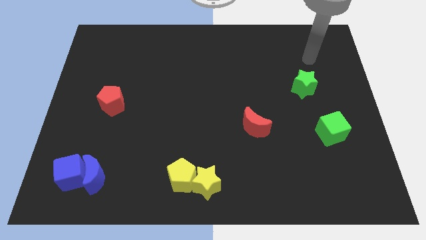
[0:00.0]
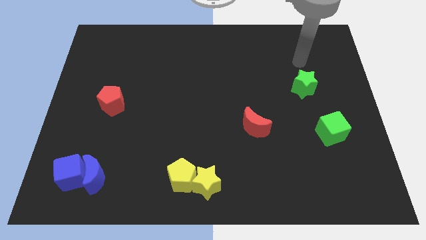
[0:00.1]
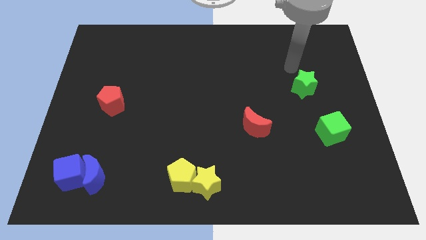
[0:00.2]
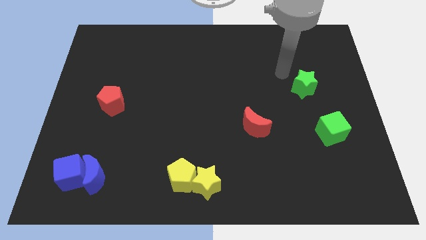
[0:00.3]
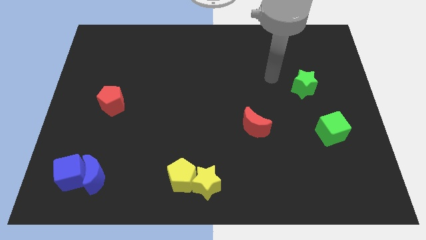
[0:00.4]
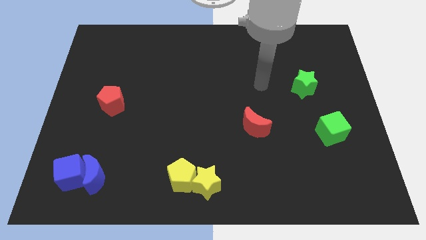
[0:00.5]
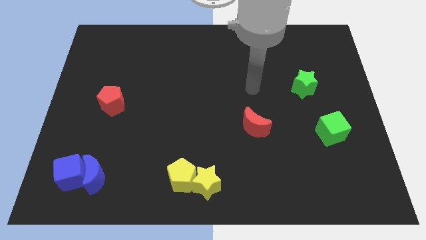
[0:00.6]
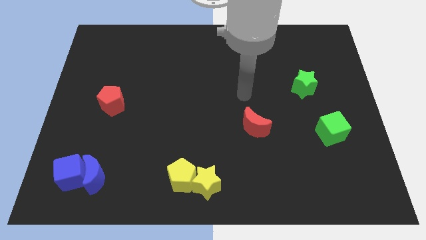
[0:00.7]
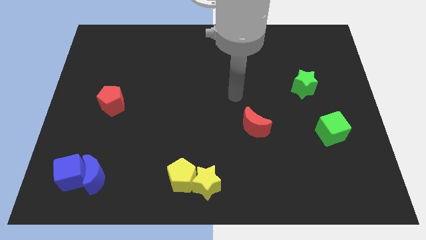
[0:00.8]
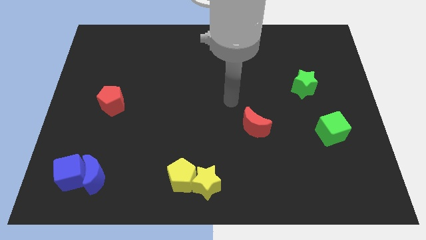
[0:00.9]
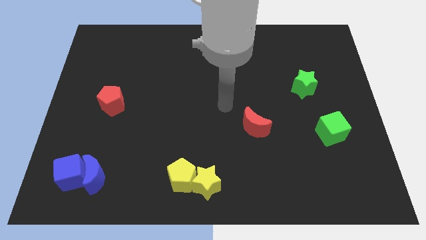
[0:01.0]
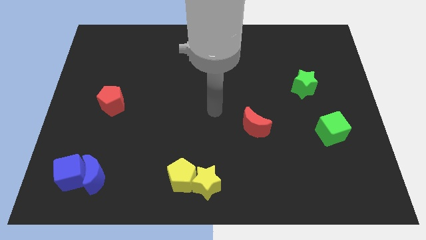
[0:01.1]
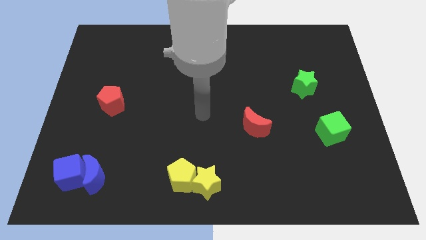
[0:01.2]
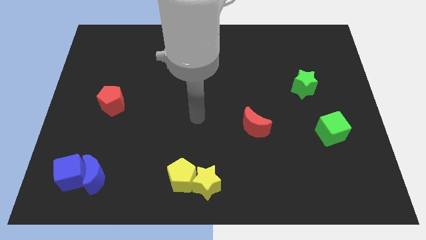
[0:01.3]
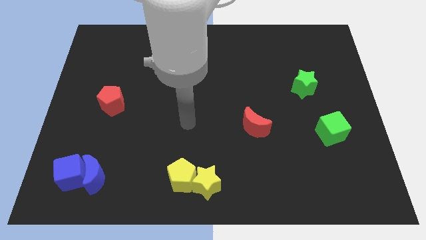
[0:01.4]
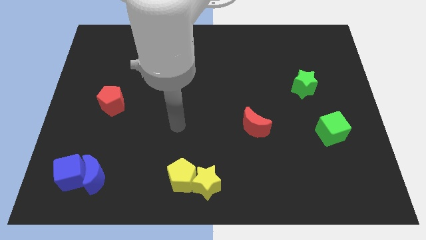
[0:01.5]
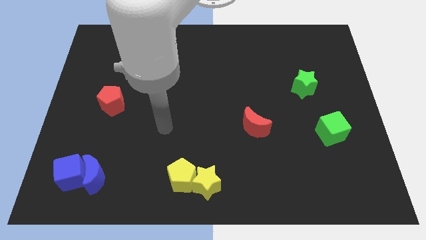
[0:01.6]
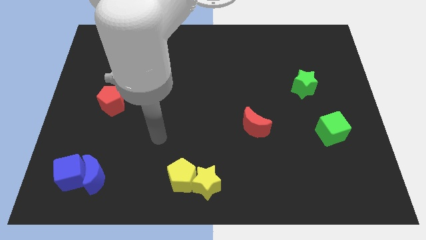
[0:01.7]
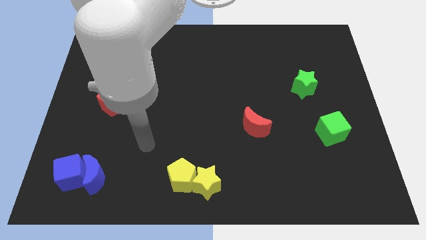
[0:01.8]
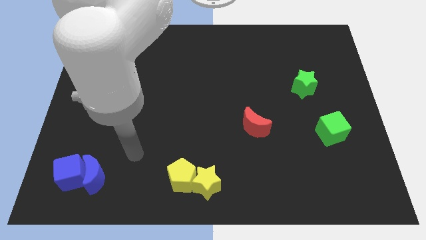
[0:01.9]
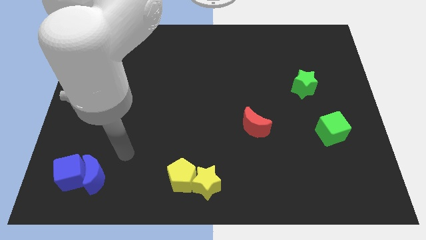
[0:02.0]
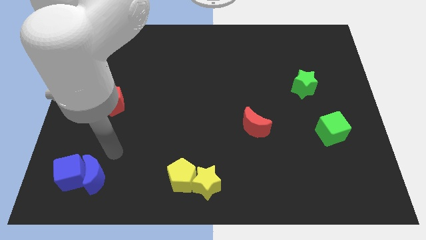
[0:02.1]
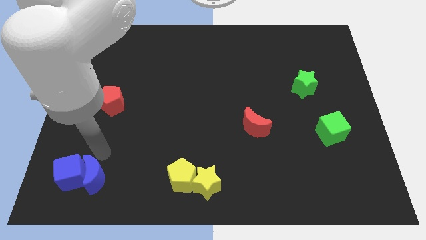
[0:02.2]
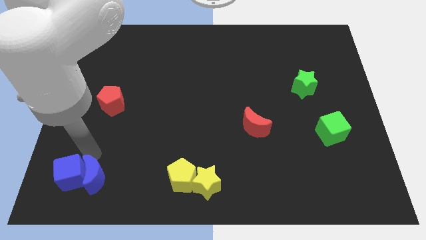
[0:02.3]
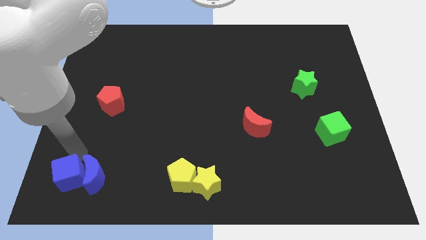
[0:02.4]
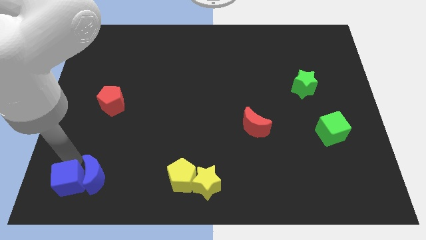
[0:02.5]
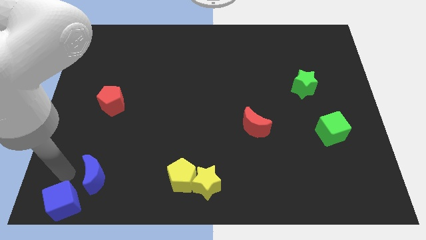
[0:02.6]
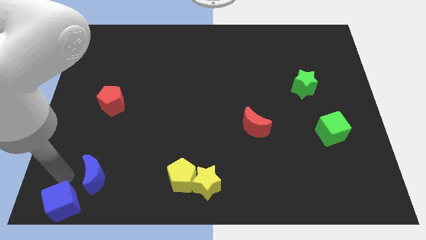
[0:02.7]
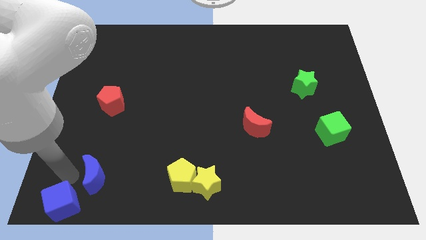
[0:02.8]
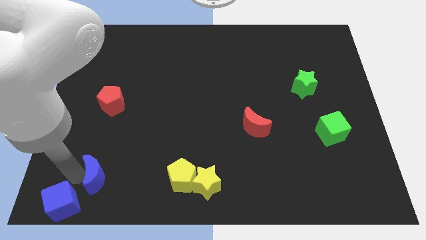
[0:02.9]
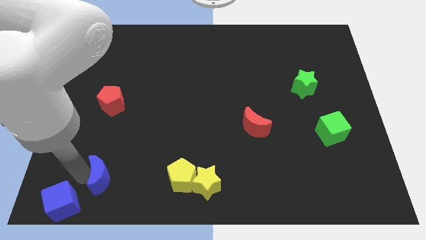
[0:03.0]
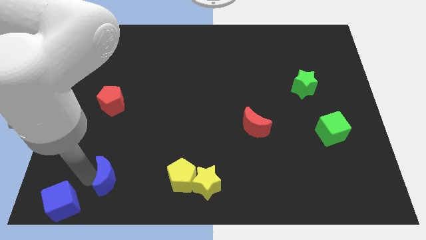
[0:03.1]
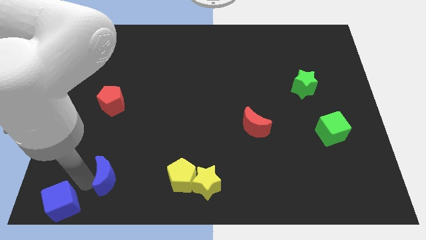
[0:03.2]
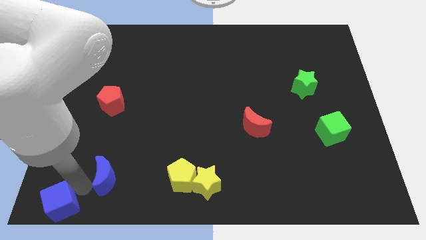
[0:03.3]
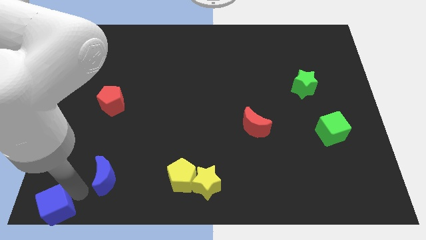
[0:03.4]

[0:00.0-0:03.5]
move the blue moon away from the blue cube

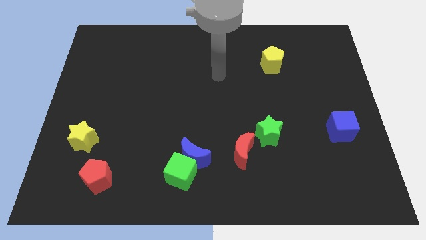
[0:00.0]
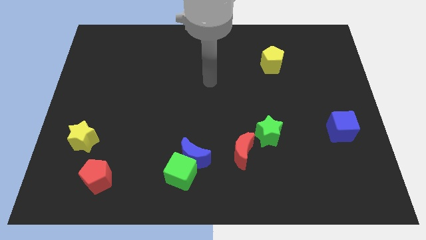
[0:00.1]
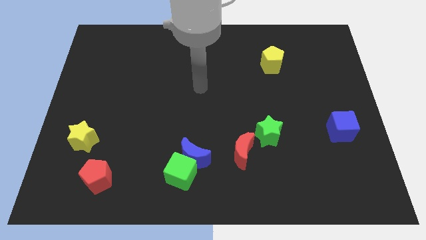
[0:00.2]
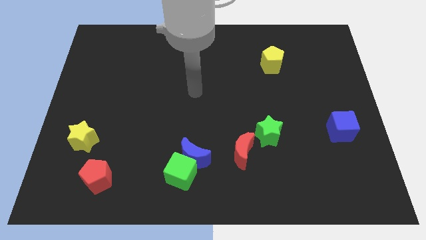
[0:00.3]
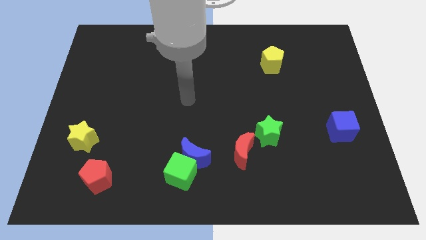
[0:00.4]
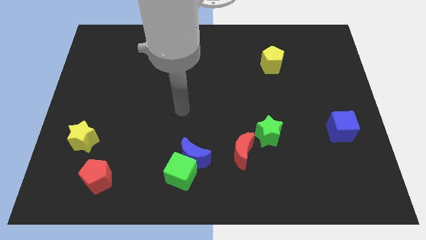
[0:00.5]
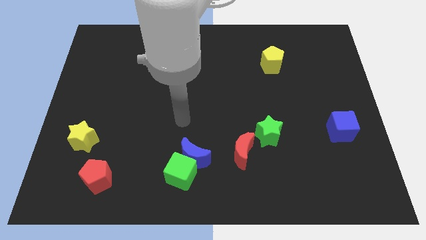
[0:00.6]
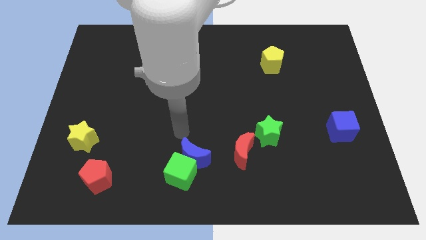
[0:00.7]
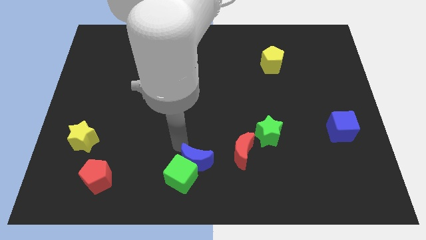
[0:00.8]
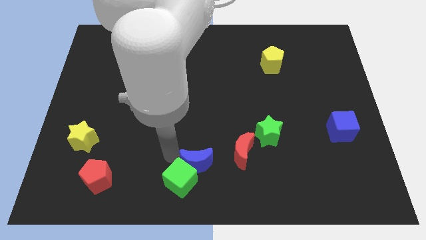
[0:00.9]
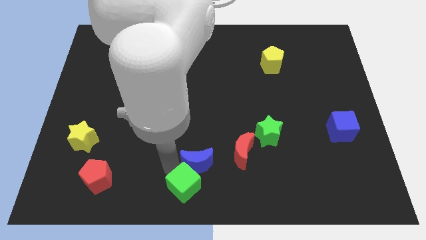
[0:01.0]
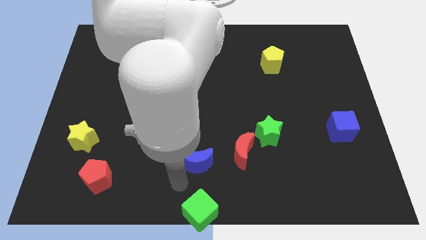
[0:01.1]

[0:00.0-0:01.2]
separate the blue moon from the green cube

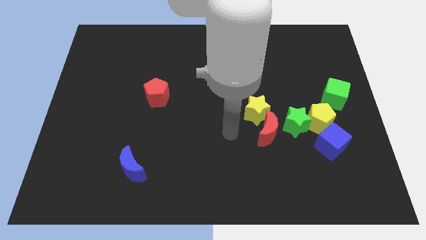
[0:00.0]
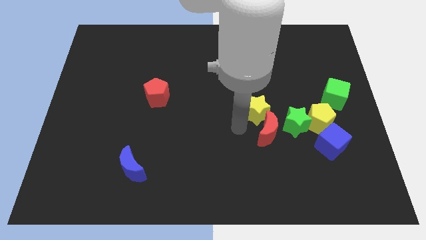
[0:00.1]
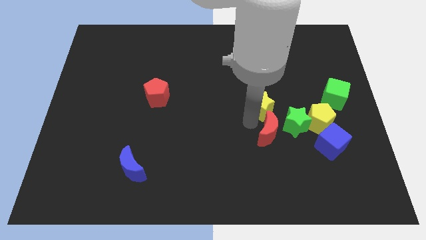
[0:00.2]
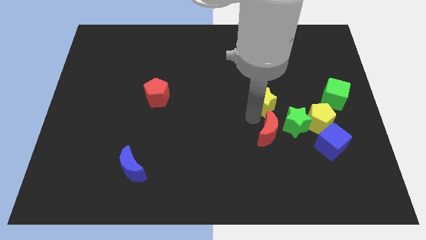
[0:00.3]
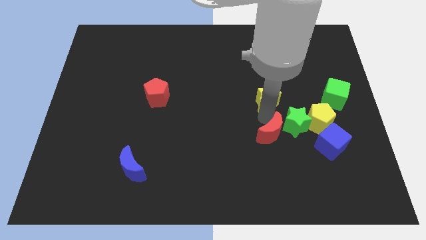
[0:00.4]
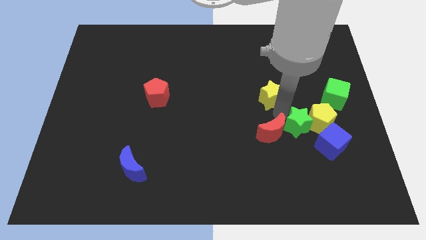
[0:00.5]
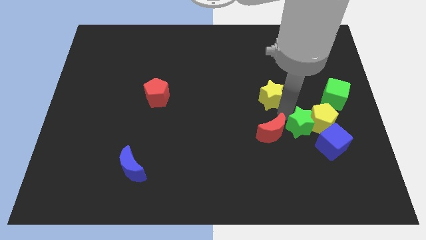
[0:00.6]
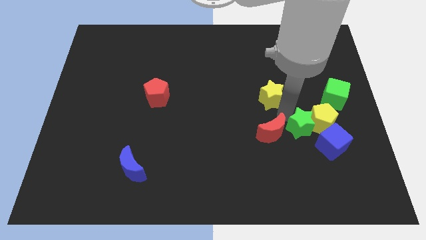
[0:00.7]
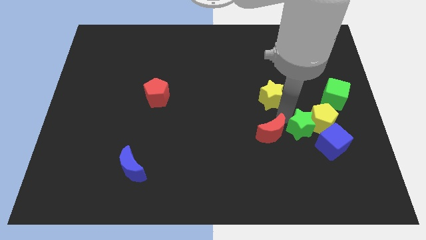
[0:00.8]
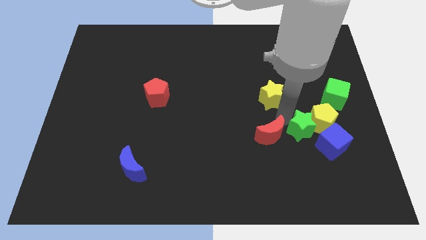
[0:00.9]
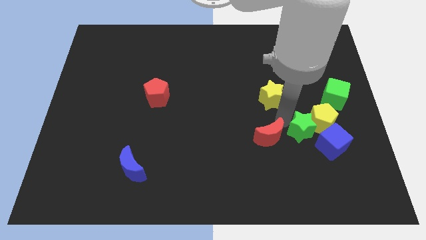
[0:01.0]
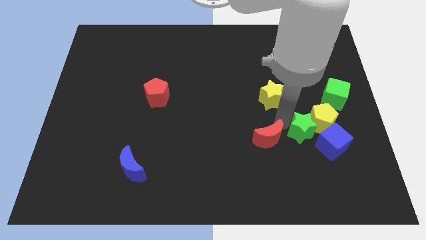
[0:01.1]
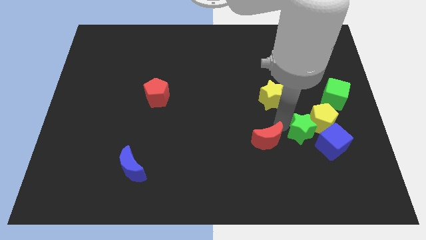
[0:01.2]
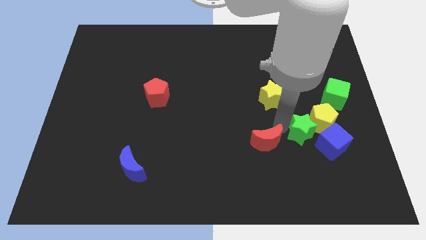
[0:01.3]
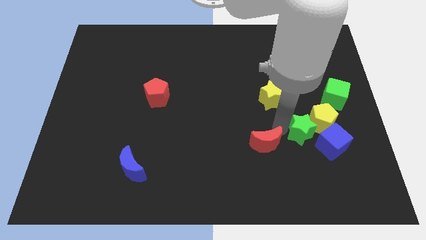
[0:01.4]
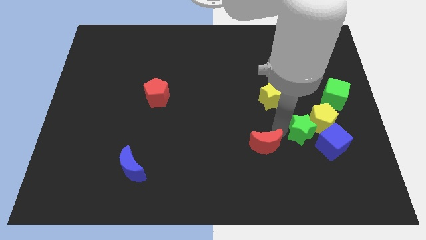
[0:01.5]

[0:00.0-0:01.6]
separate the red moon from the yellow star and green star

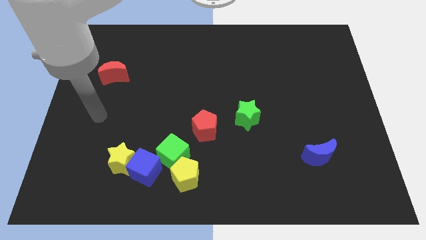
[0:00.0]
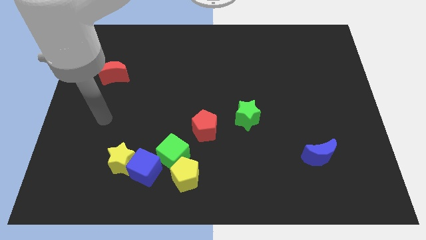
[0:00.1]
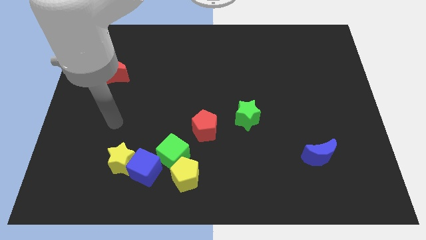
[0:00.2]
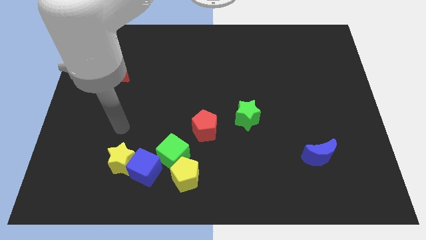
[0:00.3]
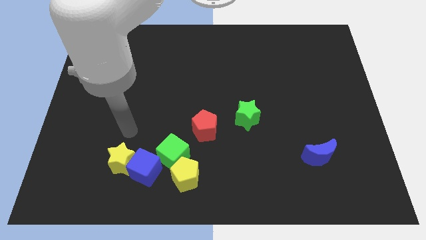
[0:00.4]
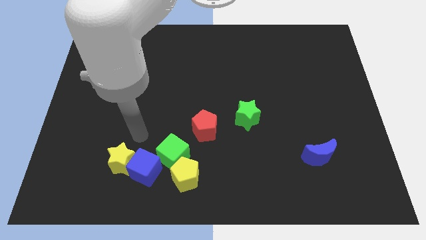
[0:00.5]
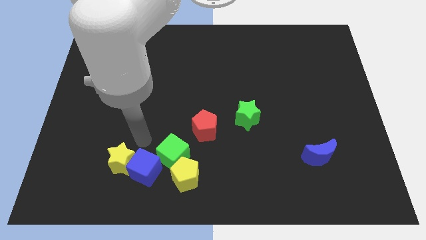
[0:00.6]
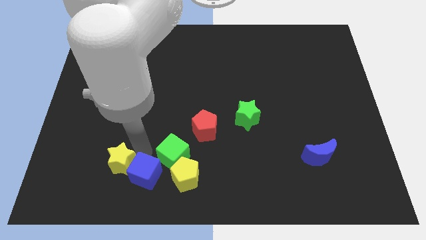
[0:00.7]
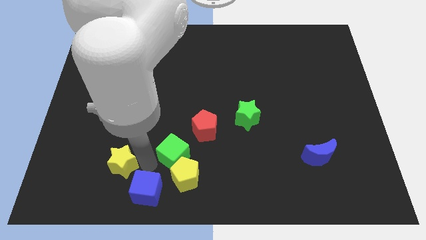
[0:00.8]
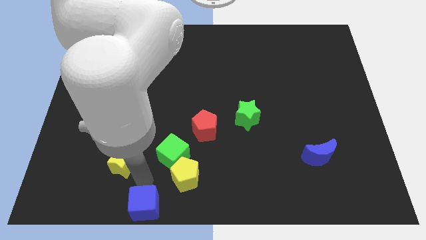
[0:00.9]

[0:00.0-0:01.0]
pull the yellow star apart from the blue cube

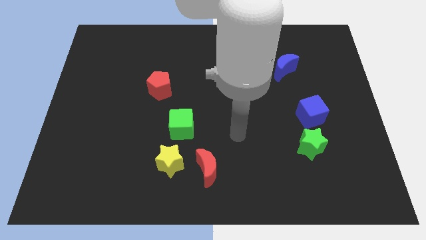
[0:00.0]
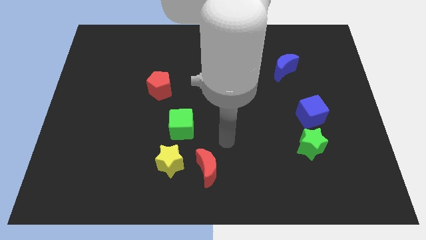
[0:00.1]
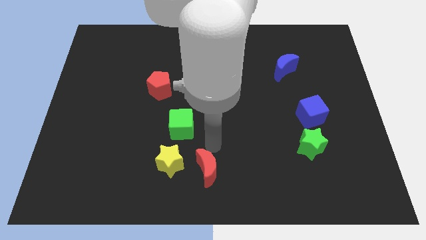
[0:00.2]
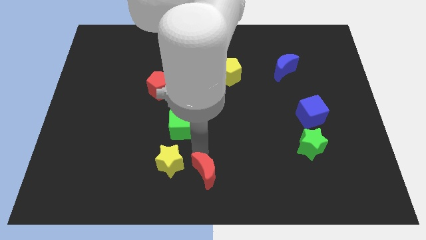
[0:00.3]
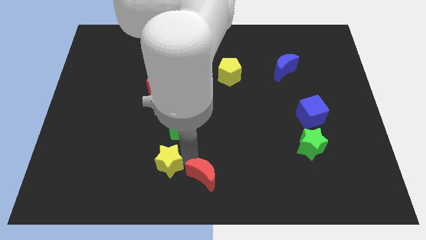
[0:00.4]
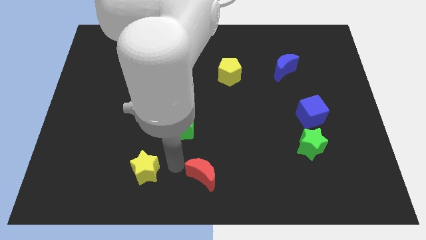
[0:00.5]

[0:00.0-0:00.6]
move the red moon away from the yellow star

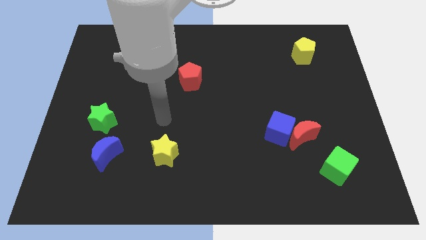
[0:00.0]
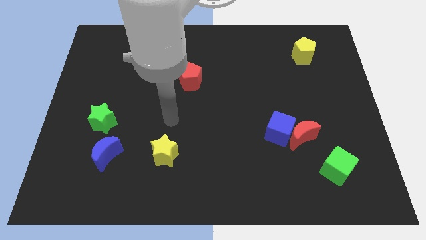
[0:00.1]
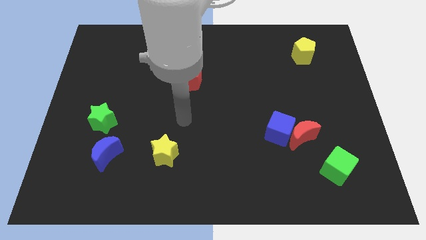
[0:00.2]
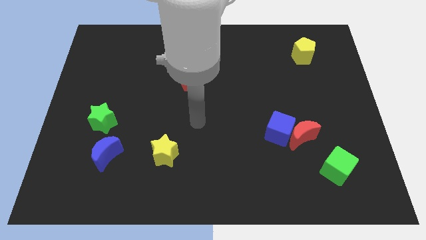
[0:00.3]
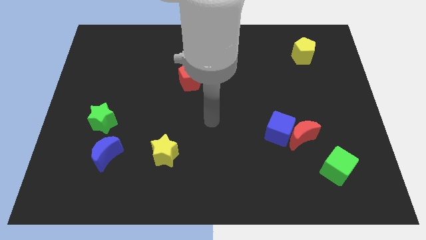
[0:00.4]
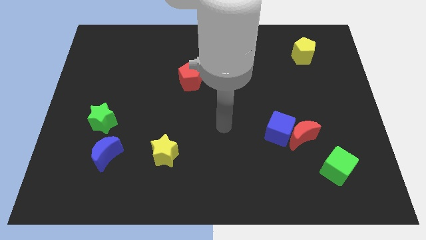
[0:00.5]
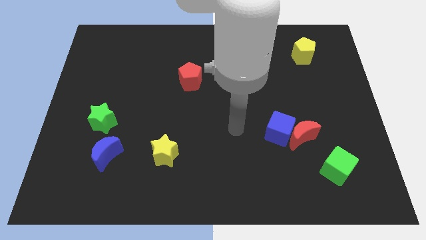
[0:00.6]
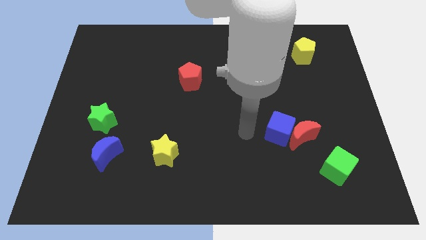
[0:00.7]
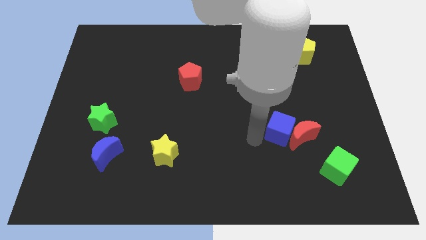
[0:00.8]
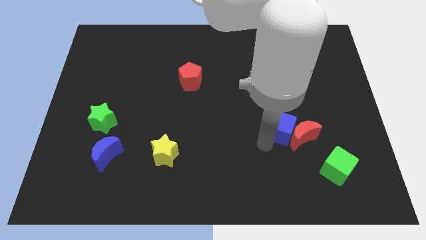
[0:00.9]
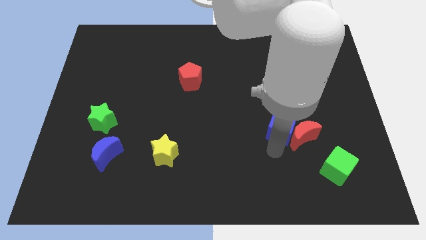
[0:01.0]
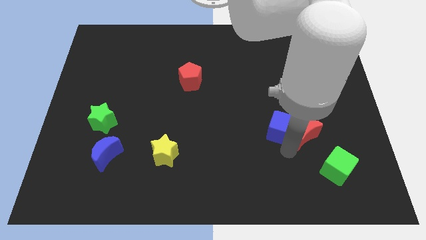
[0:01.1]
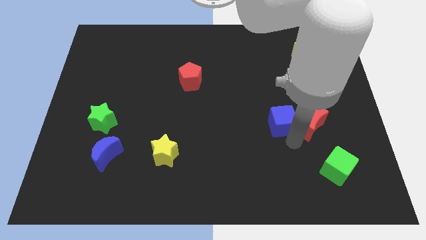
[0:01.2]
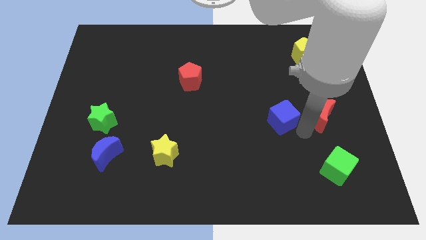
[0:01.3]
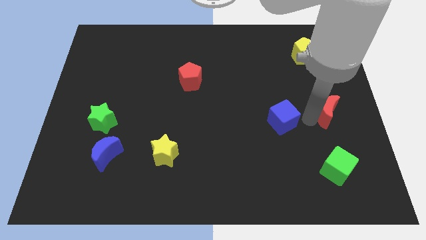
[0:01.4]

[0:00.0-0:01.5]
separate the blue cube from the red moon
